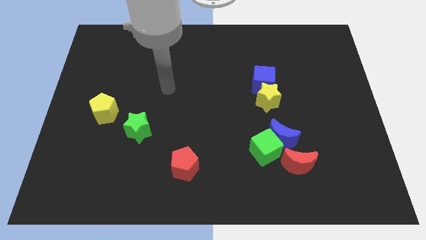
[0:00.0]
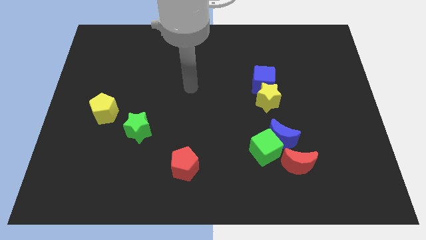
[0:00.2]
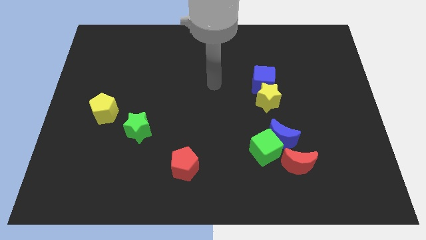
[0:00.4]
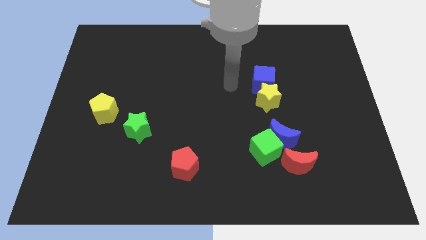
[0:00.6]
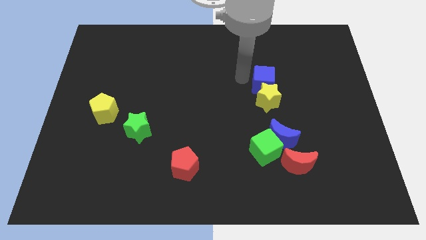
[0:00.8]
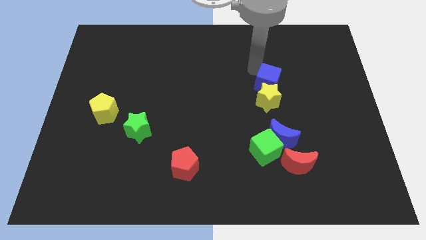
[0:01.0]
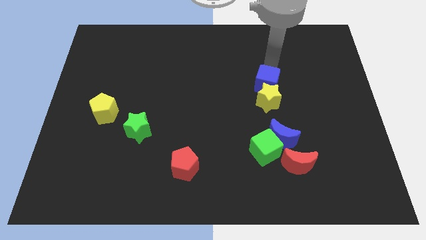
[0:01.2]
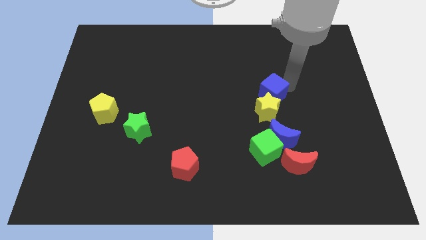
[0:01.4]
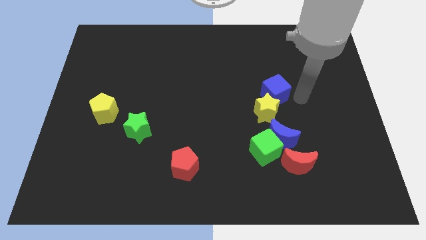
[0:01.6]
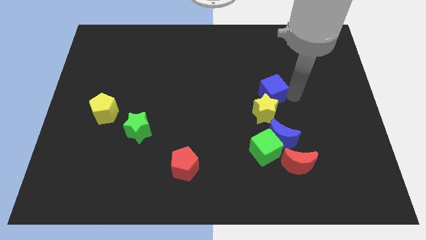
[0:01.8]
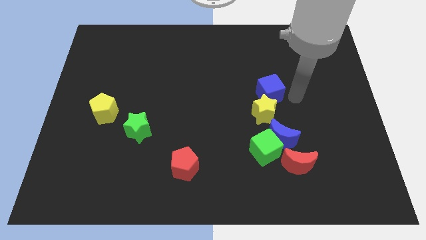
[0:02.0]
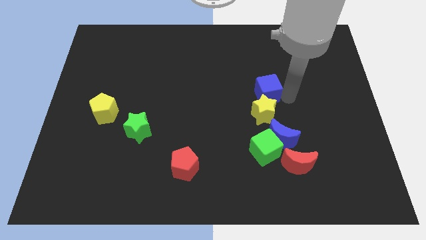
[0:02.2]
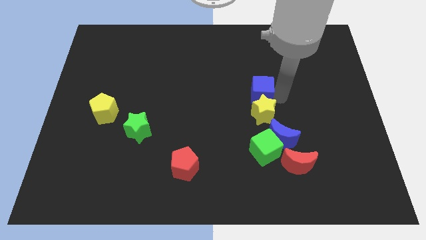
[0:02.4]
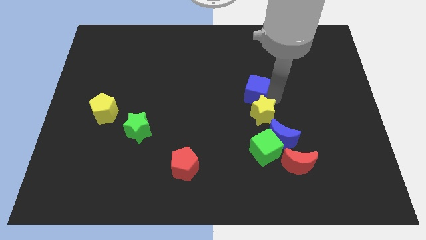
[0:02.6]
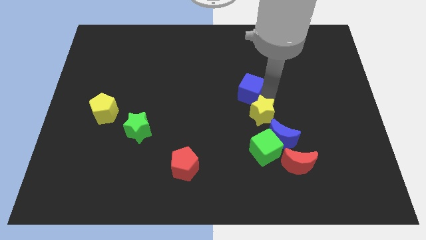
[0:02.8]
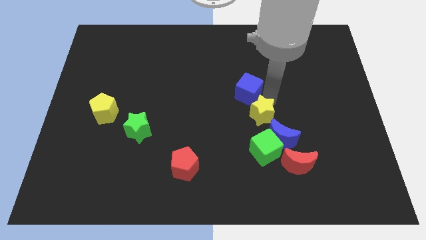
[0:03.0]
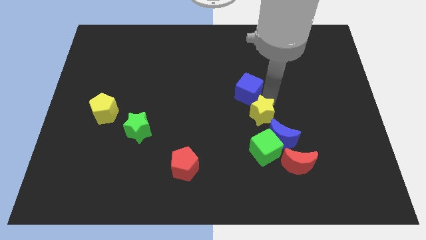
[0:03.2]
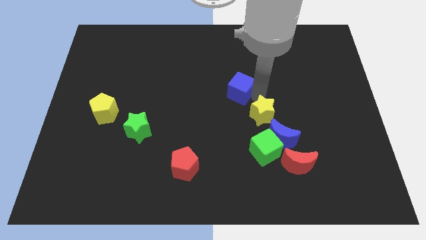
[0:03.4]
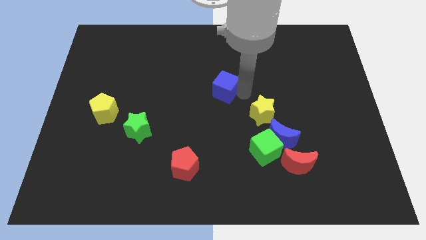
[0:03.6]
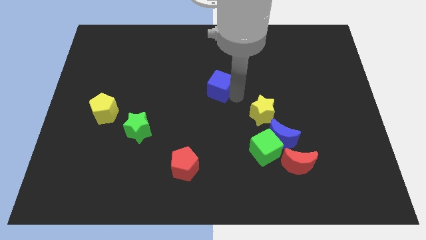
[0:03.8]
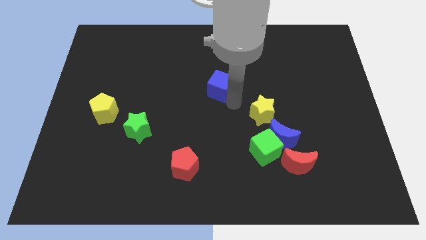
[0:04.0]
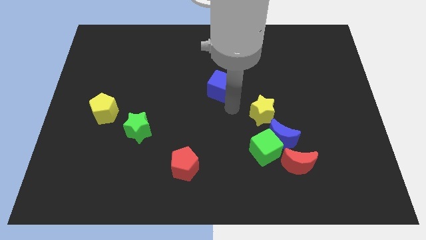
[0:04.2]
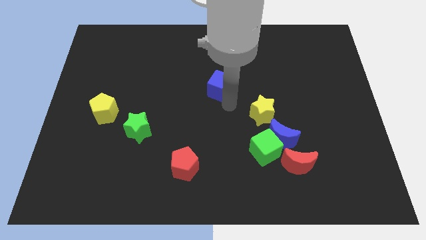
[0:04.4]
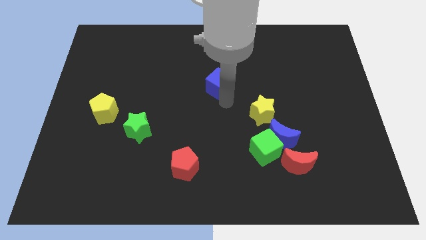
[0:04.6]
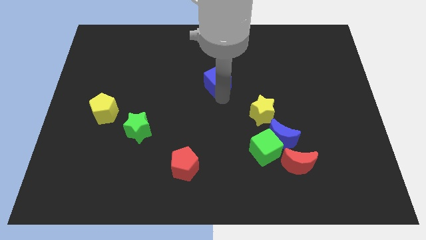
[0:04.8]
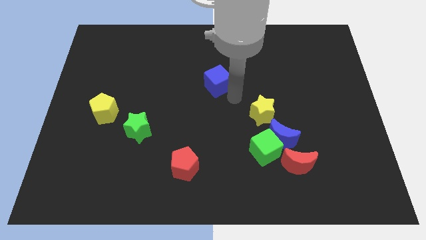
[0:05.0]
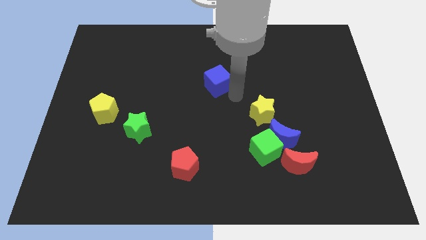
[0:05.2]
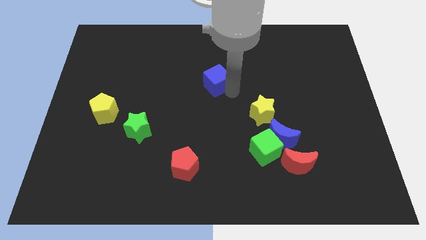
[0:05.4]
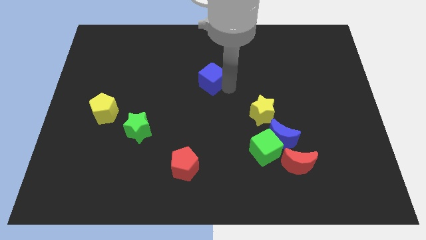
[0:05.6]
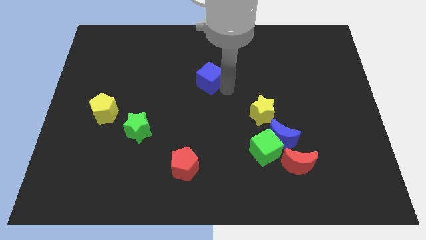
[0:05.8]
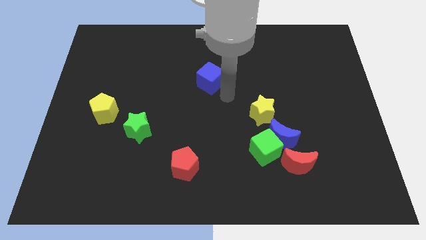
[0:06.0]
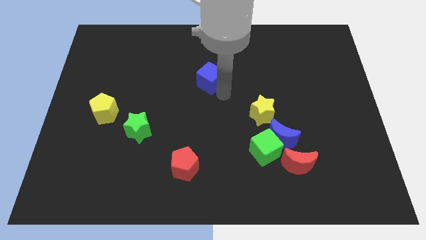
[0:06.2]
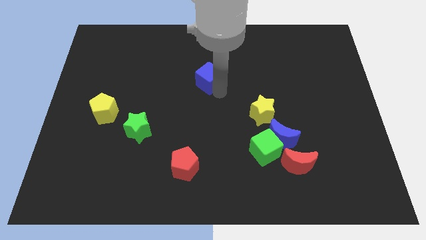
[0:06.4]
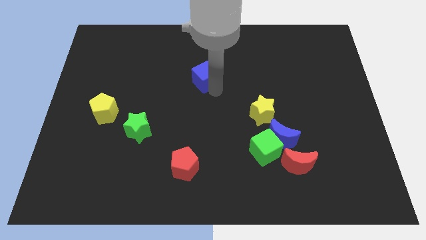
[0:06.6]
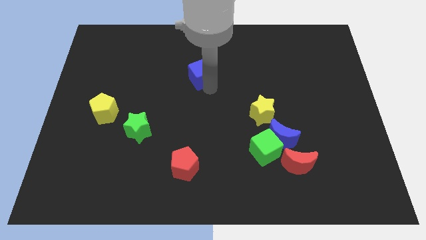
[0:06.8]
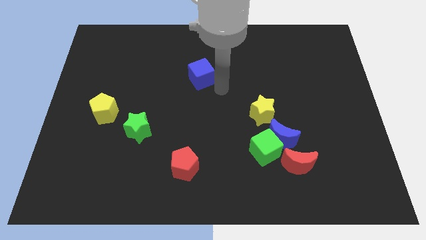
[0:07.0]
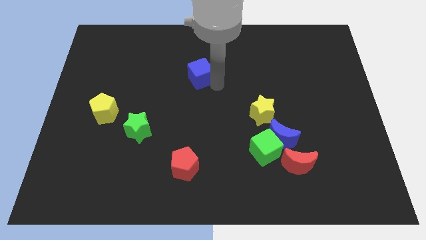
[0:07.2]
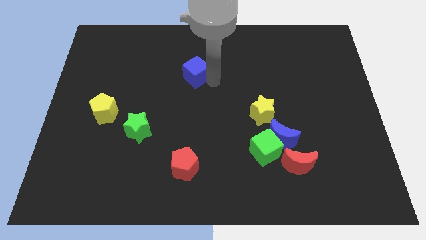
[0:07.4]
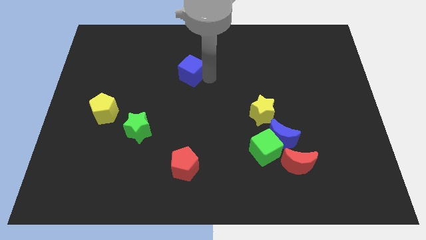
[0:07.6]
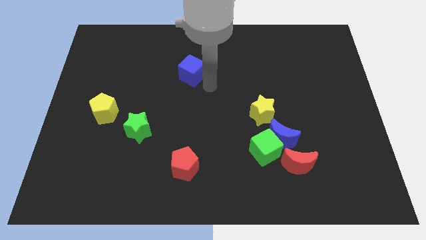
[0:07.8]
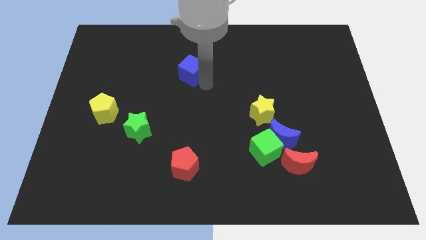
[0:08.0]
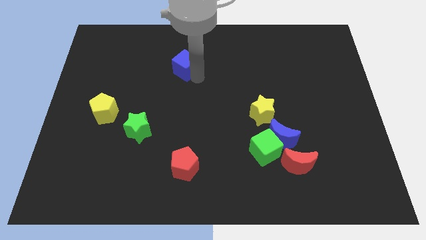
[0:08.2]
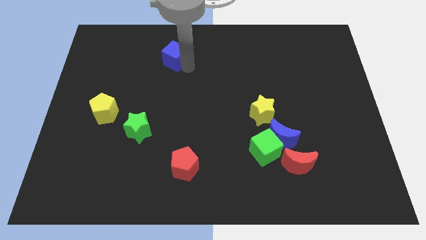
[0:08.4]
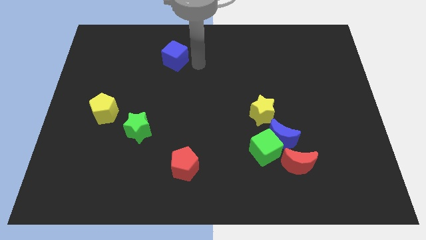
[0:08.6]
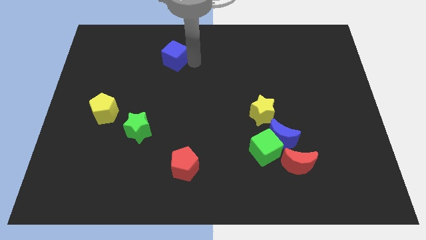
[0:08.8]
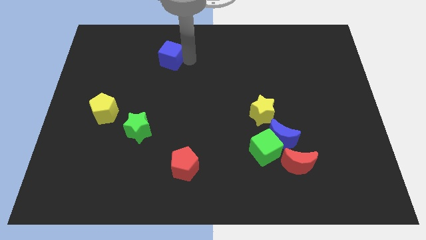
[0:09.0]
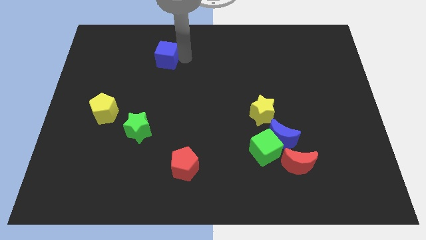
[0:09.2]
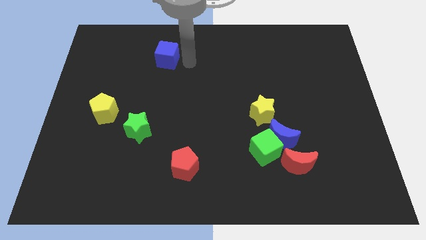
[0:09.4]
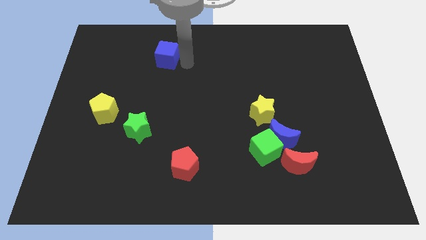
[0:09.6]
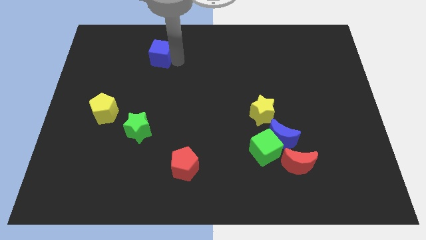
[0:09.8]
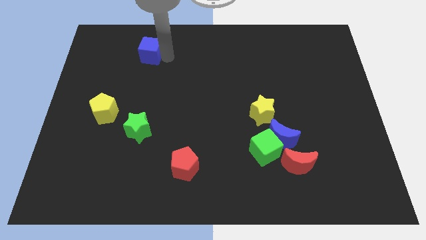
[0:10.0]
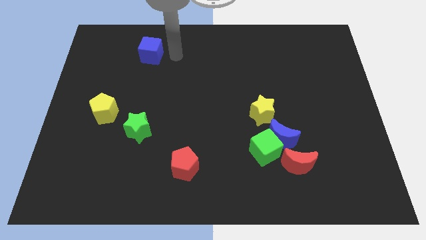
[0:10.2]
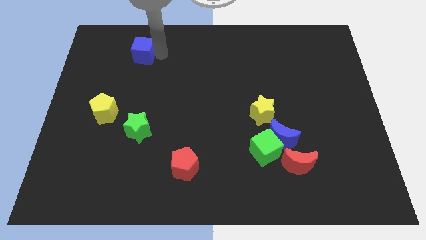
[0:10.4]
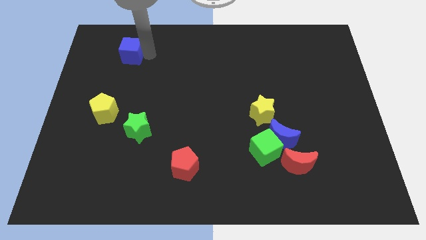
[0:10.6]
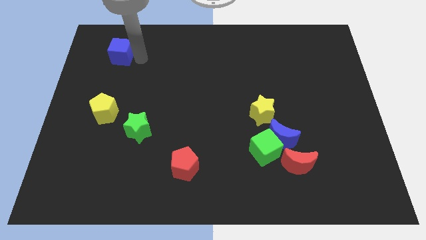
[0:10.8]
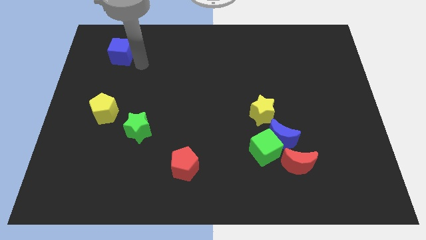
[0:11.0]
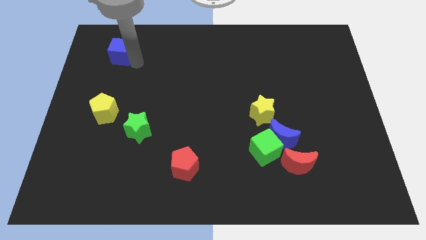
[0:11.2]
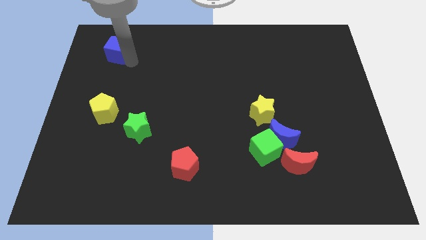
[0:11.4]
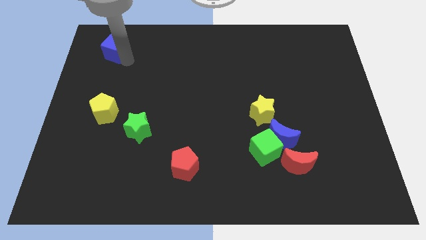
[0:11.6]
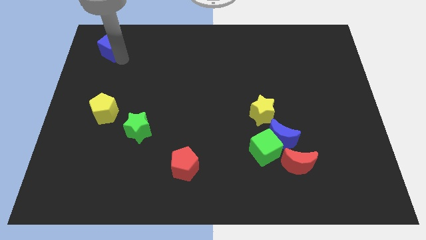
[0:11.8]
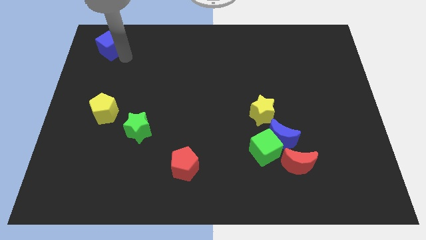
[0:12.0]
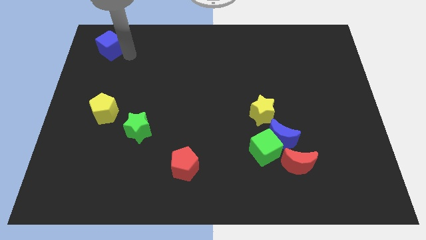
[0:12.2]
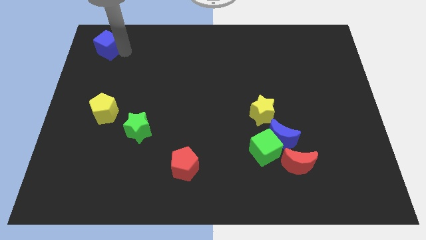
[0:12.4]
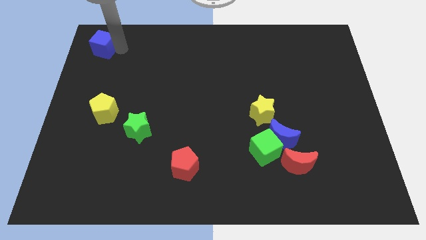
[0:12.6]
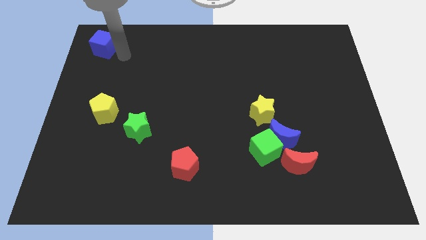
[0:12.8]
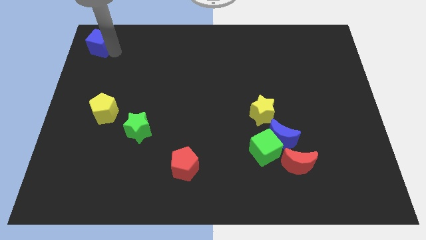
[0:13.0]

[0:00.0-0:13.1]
push the blue cube to the top left
